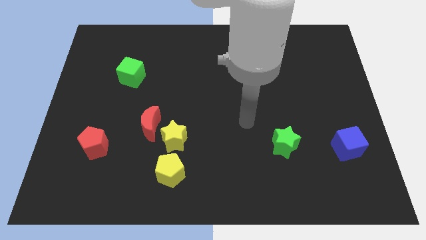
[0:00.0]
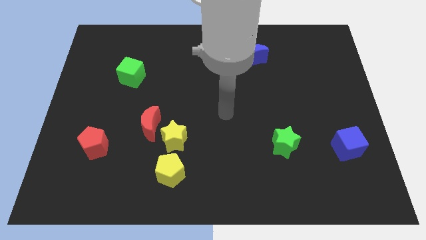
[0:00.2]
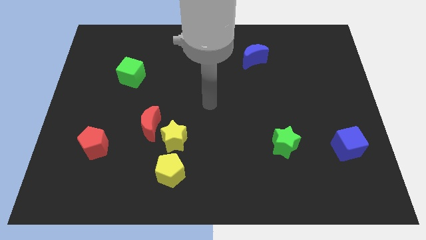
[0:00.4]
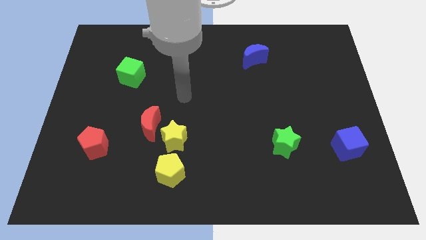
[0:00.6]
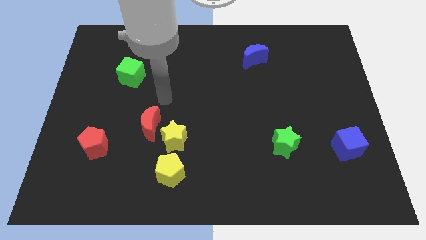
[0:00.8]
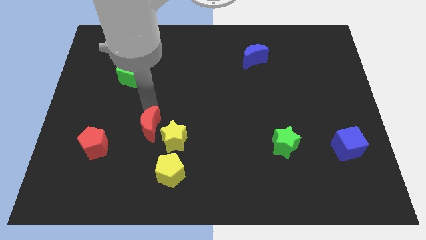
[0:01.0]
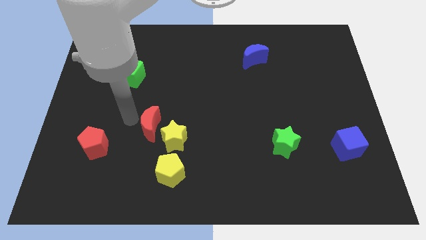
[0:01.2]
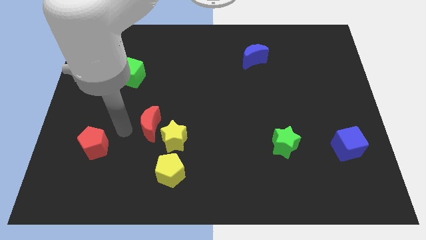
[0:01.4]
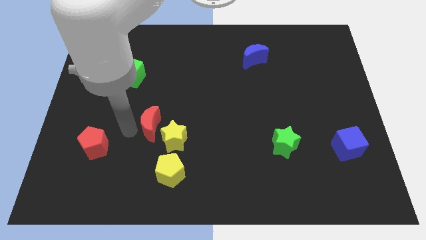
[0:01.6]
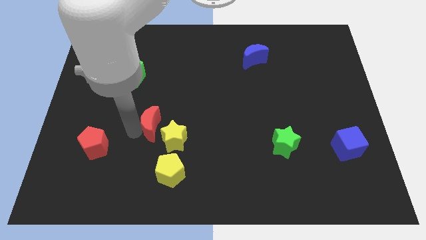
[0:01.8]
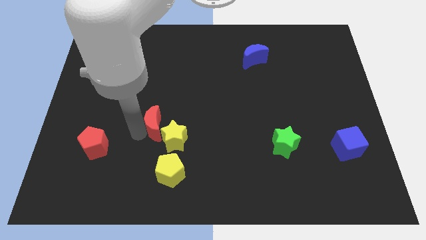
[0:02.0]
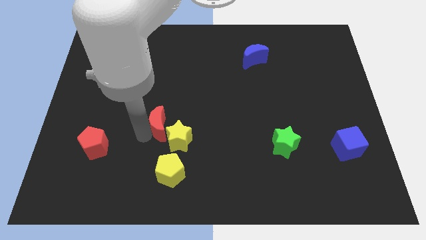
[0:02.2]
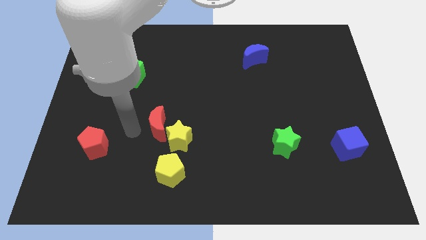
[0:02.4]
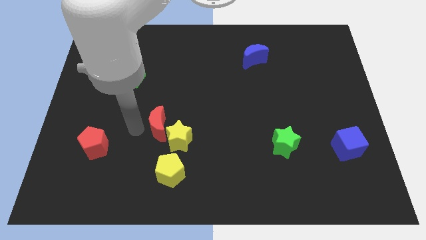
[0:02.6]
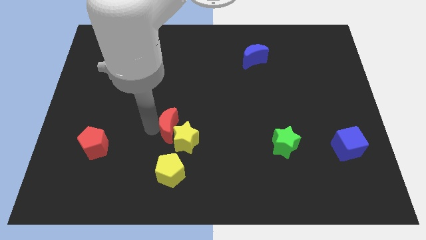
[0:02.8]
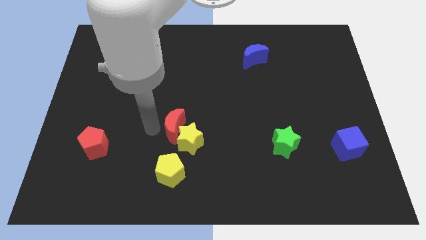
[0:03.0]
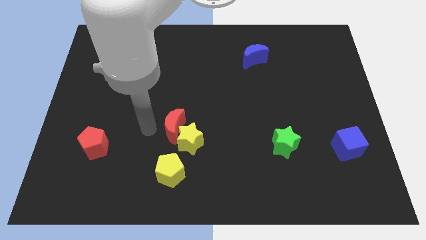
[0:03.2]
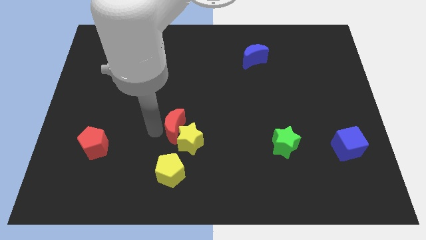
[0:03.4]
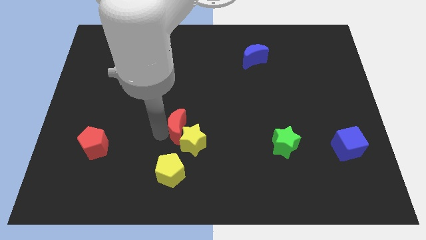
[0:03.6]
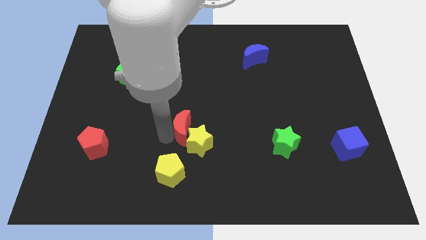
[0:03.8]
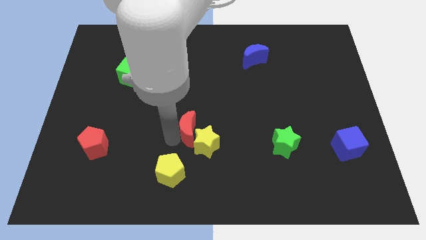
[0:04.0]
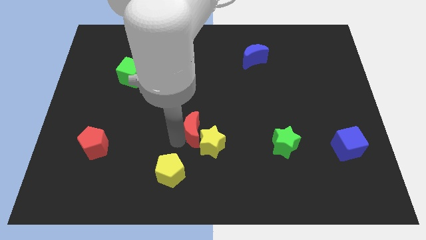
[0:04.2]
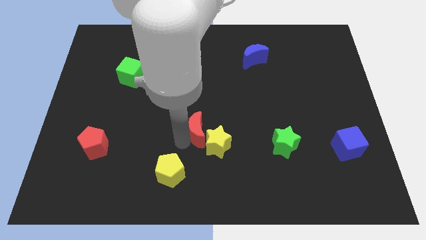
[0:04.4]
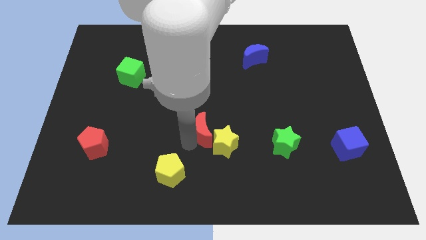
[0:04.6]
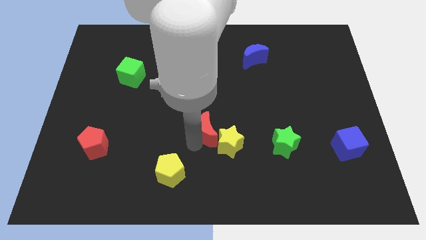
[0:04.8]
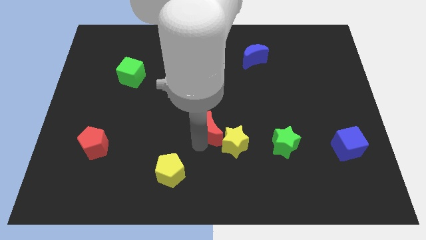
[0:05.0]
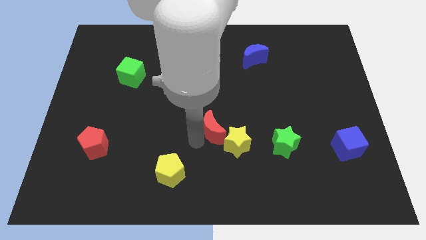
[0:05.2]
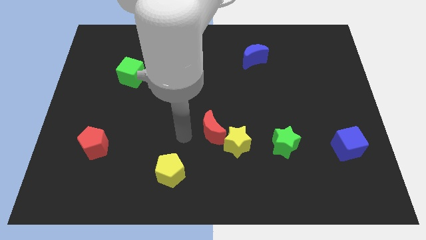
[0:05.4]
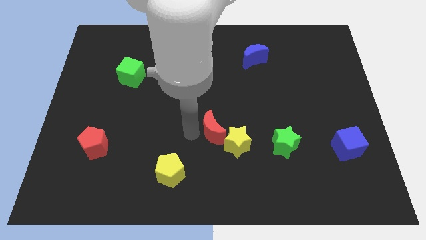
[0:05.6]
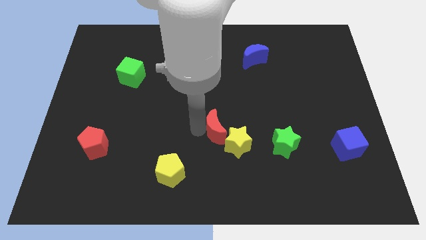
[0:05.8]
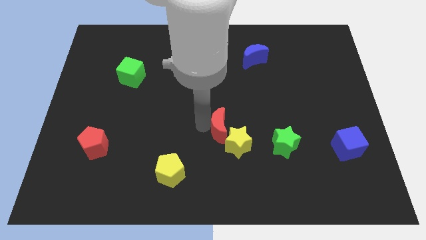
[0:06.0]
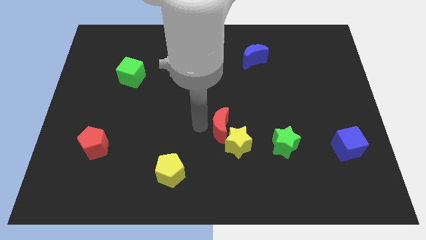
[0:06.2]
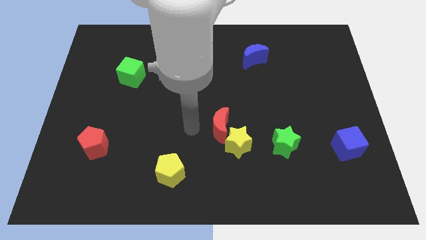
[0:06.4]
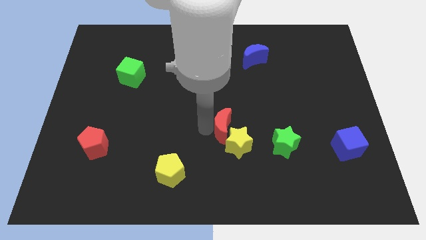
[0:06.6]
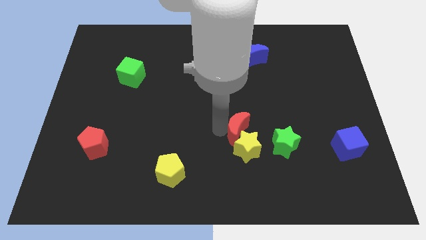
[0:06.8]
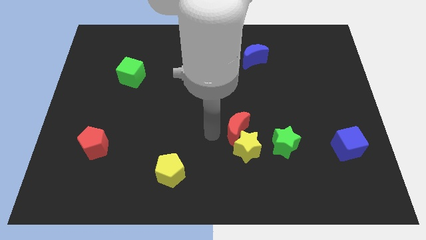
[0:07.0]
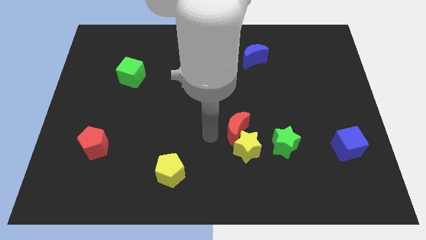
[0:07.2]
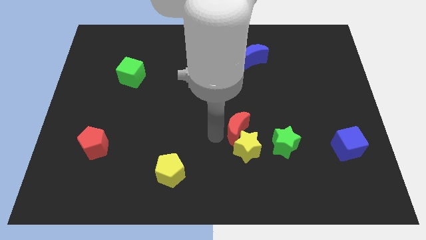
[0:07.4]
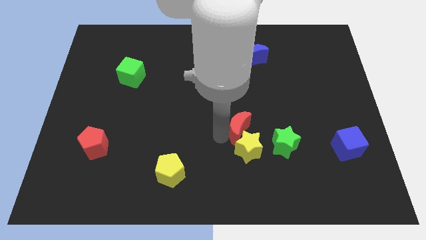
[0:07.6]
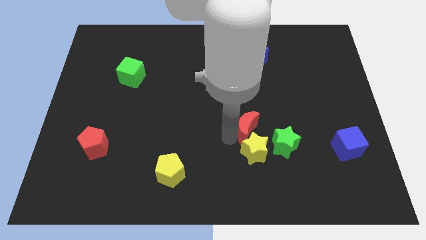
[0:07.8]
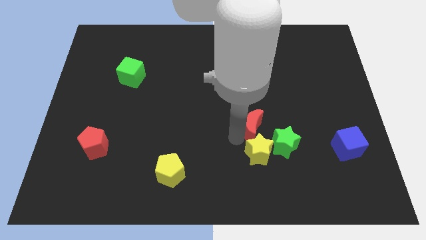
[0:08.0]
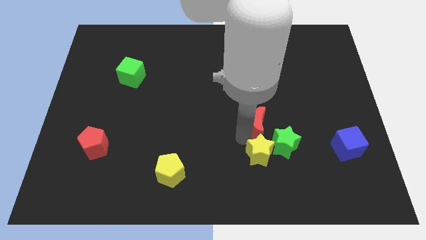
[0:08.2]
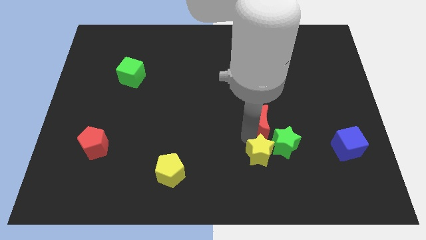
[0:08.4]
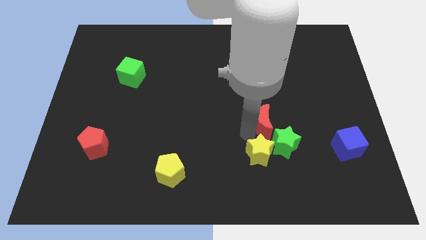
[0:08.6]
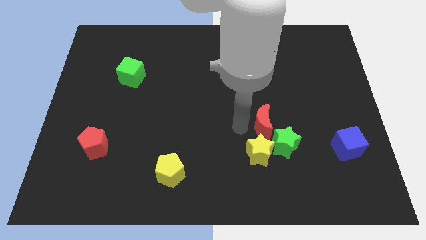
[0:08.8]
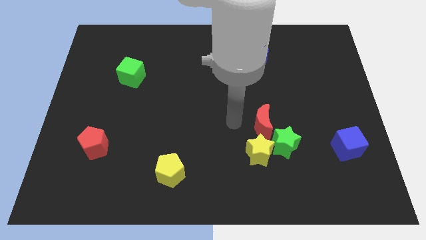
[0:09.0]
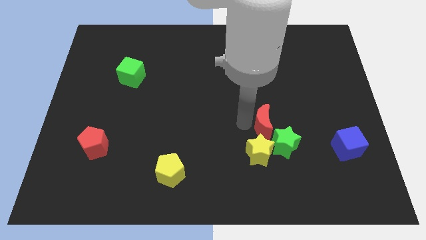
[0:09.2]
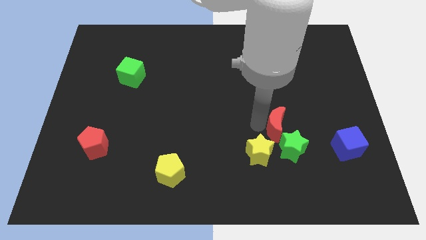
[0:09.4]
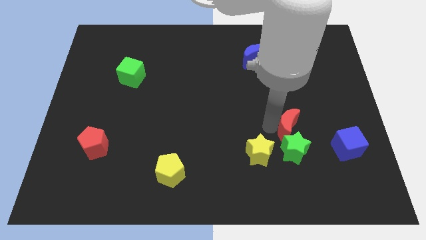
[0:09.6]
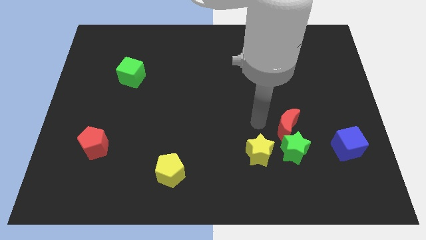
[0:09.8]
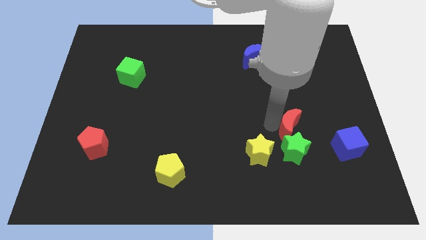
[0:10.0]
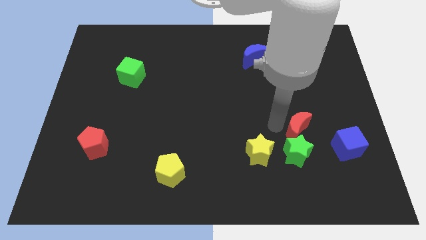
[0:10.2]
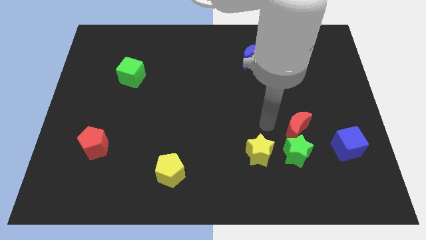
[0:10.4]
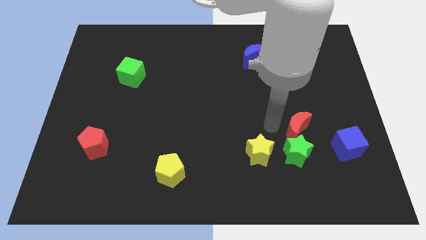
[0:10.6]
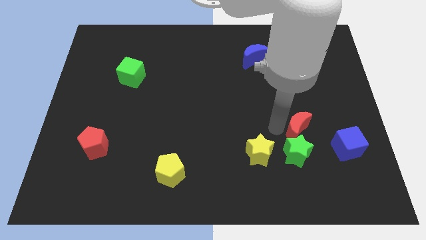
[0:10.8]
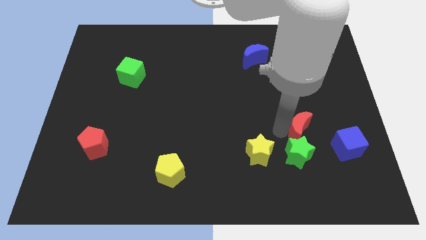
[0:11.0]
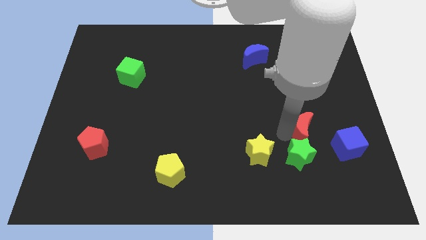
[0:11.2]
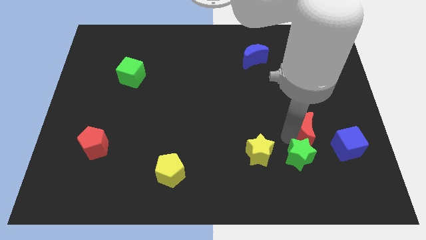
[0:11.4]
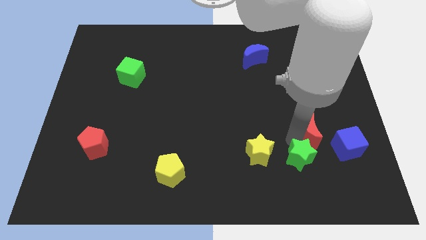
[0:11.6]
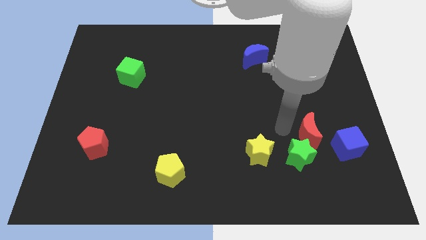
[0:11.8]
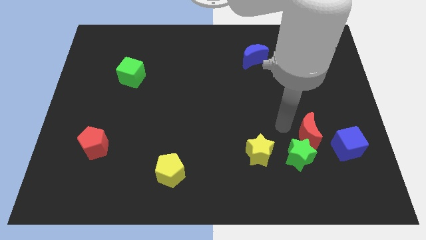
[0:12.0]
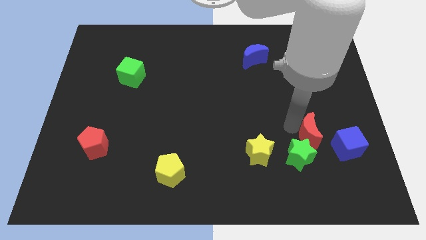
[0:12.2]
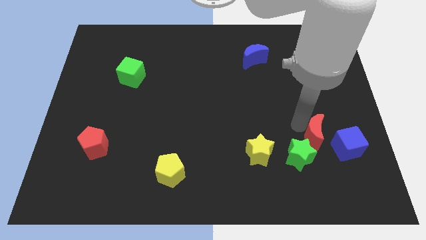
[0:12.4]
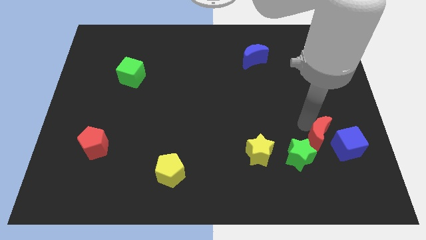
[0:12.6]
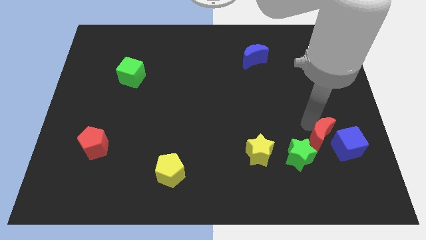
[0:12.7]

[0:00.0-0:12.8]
put the red moon towards the blue cube

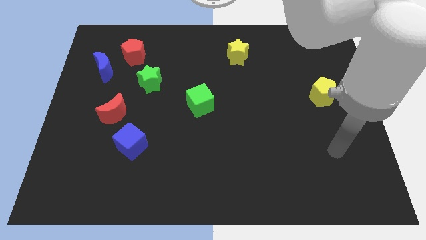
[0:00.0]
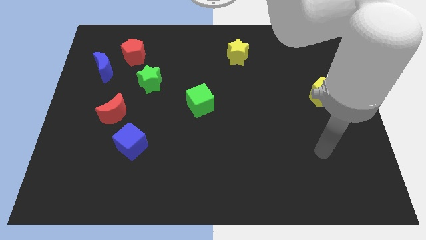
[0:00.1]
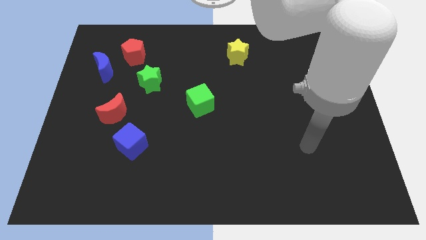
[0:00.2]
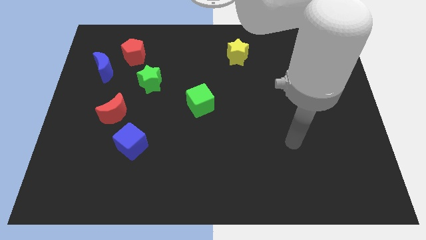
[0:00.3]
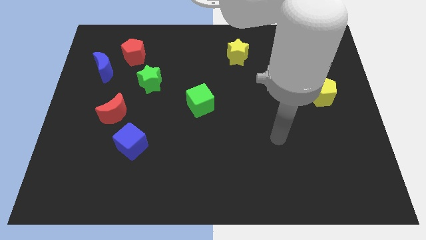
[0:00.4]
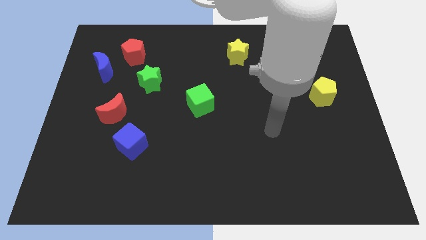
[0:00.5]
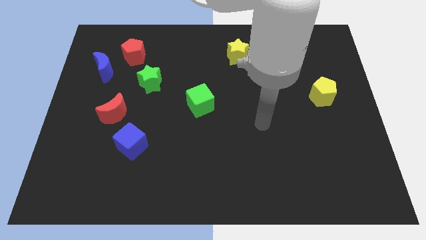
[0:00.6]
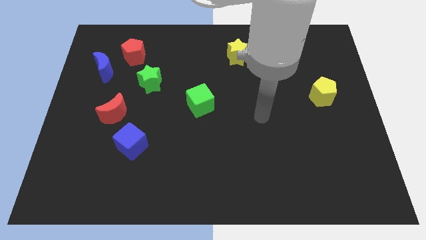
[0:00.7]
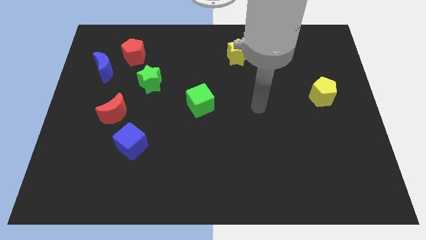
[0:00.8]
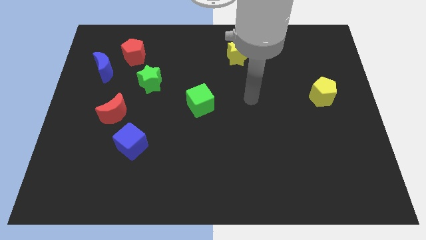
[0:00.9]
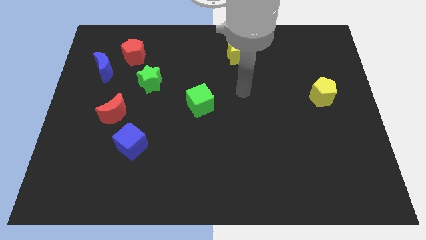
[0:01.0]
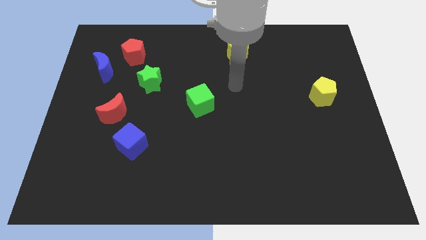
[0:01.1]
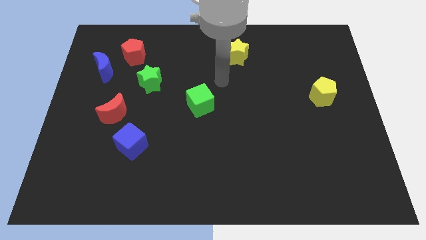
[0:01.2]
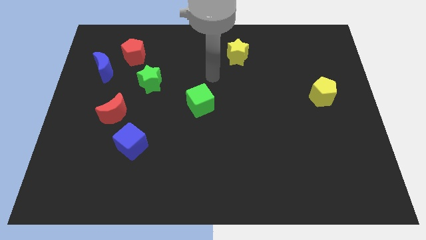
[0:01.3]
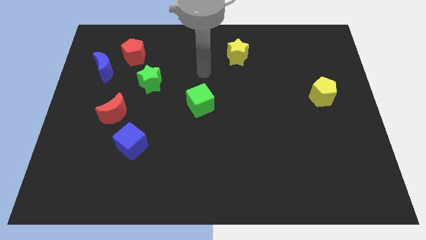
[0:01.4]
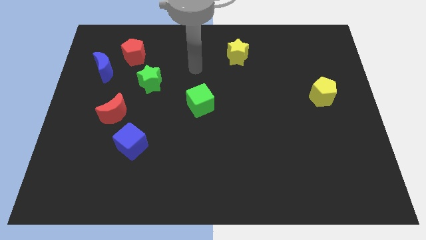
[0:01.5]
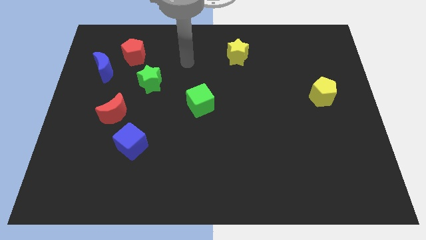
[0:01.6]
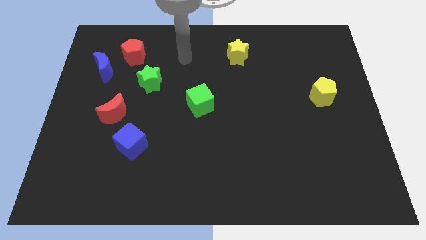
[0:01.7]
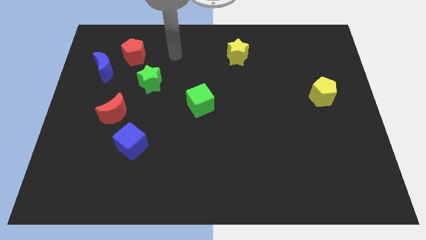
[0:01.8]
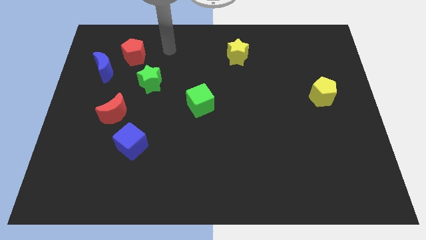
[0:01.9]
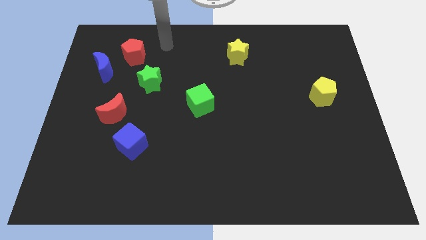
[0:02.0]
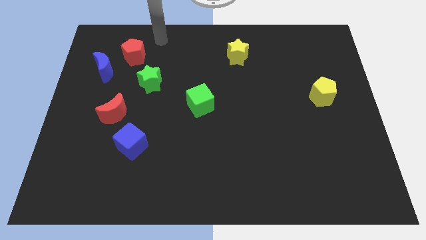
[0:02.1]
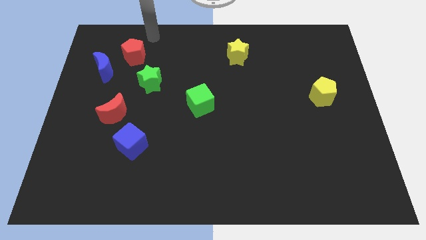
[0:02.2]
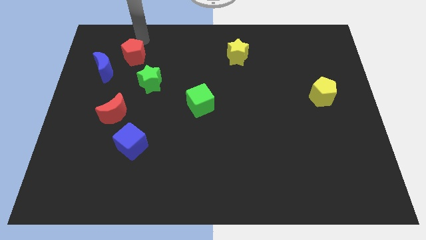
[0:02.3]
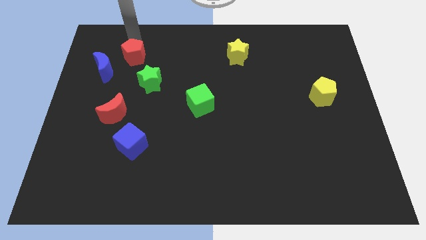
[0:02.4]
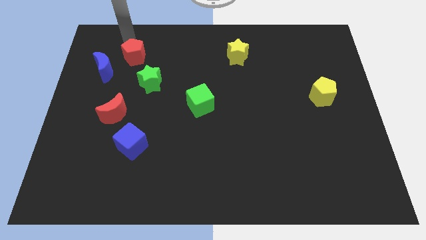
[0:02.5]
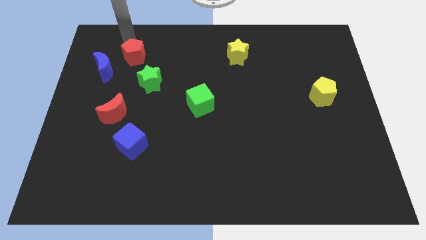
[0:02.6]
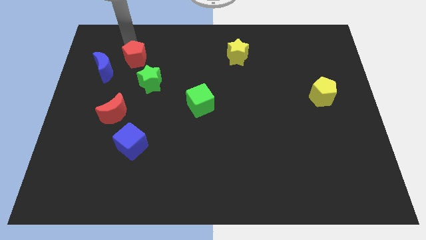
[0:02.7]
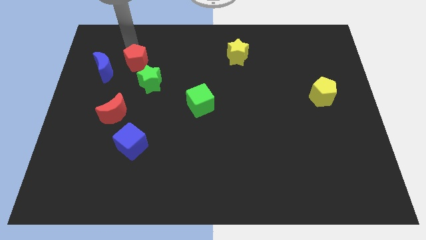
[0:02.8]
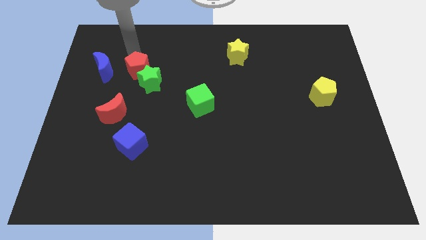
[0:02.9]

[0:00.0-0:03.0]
push the red pentagon towards the green star
